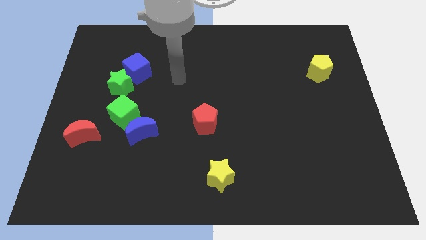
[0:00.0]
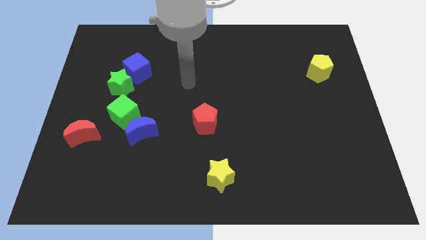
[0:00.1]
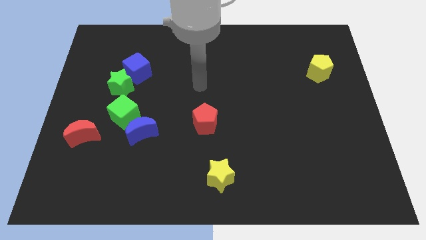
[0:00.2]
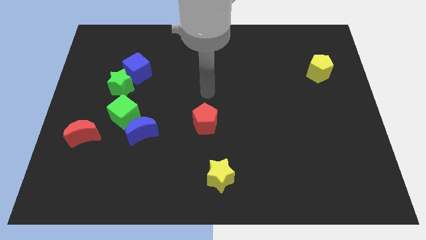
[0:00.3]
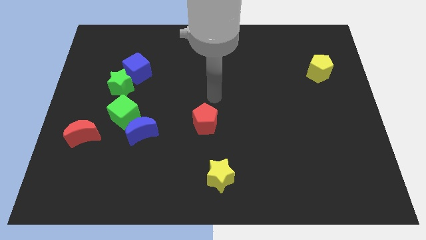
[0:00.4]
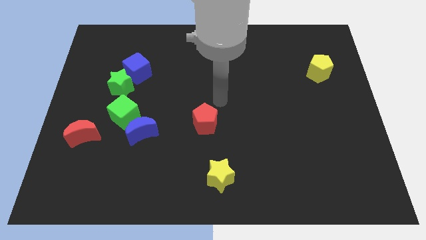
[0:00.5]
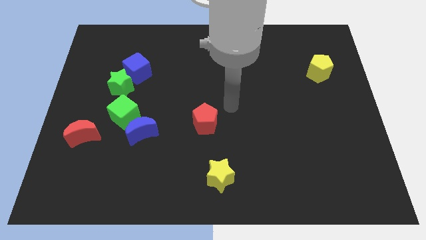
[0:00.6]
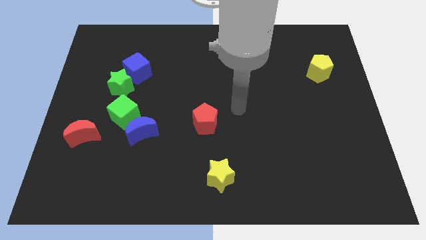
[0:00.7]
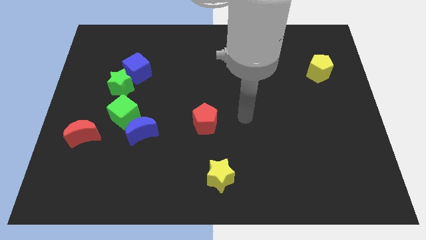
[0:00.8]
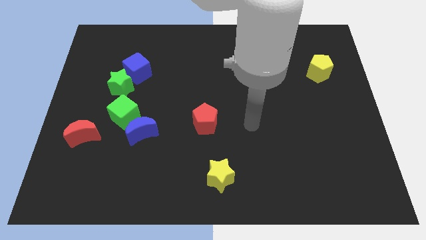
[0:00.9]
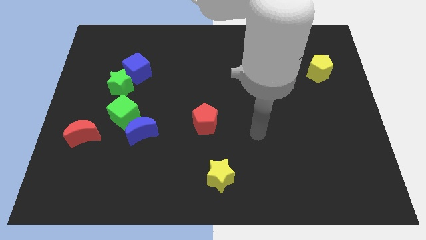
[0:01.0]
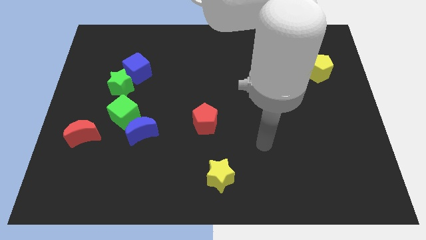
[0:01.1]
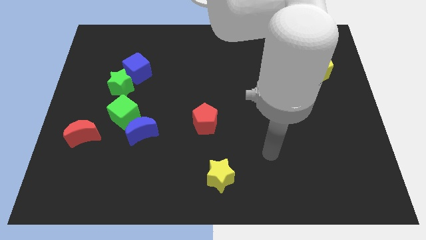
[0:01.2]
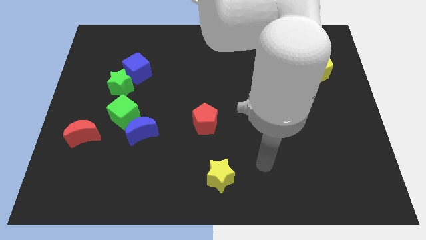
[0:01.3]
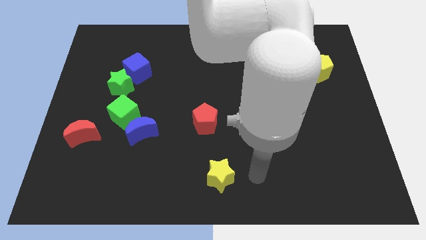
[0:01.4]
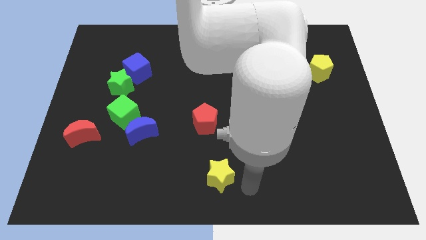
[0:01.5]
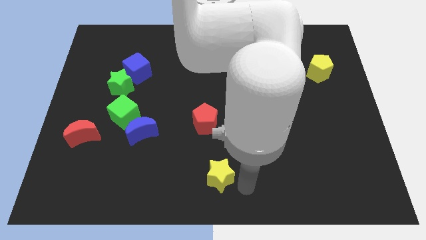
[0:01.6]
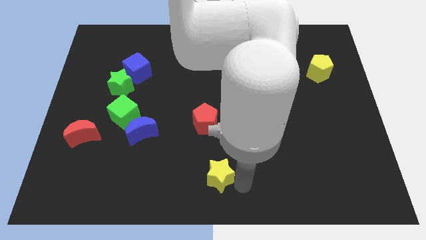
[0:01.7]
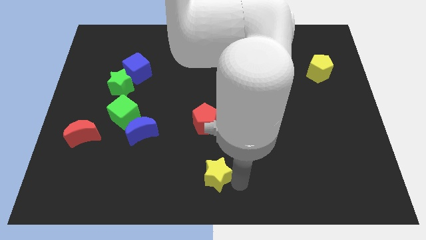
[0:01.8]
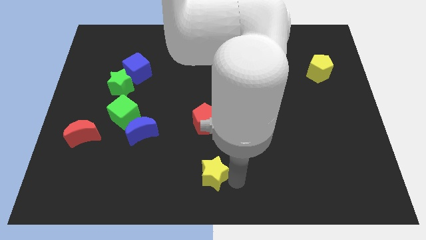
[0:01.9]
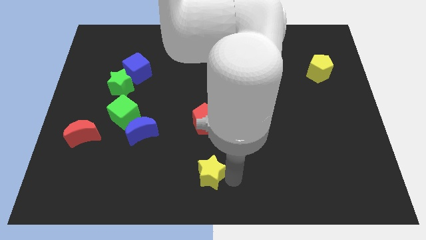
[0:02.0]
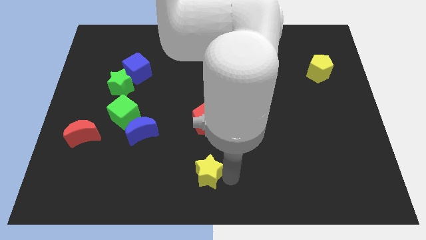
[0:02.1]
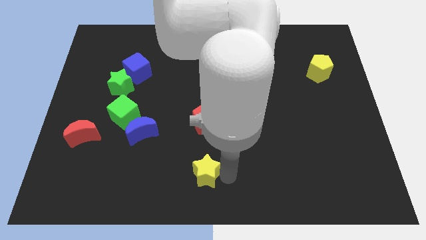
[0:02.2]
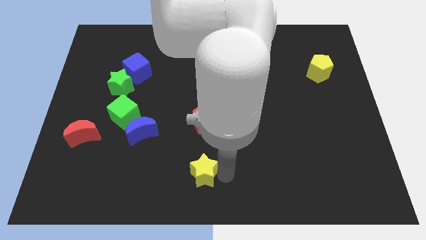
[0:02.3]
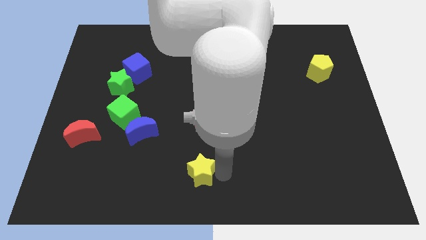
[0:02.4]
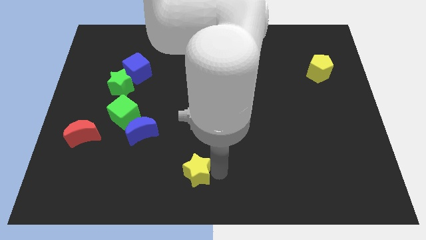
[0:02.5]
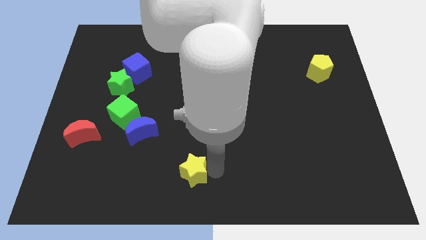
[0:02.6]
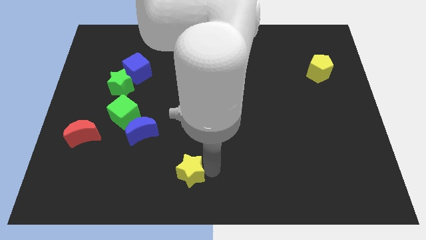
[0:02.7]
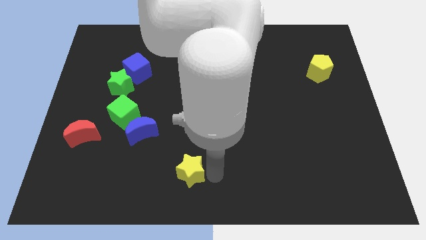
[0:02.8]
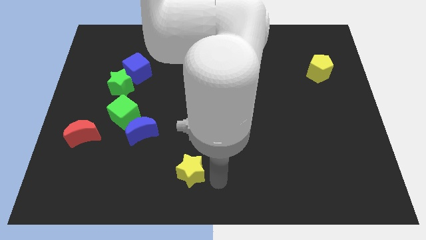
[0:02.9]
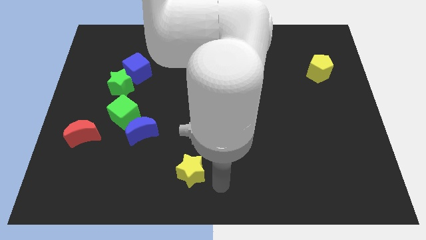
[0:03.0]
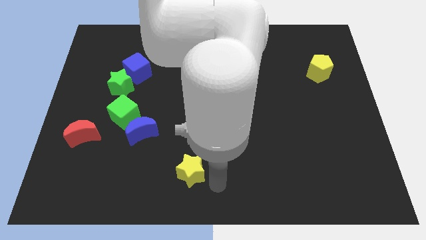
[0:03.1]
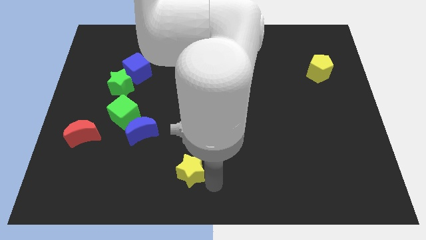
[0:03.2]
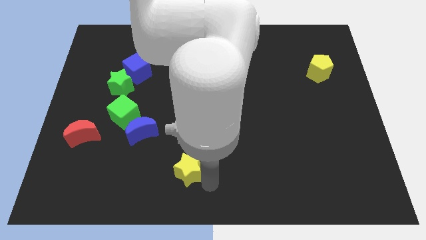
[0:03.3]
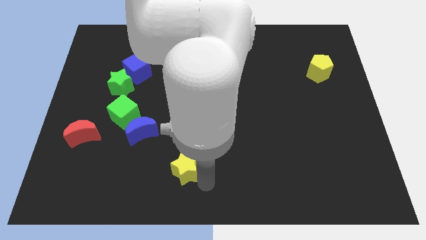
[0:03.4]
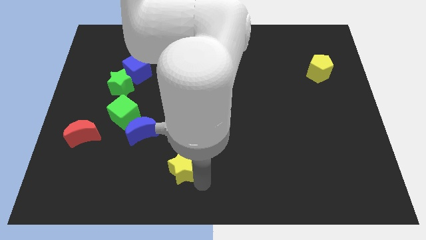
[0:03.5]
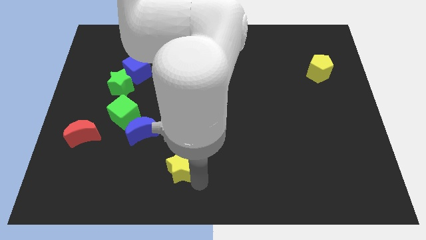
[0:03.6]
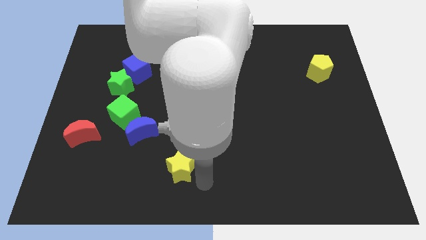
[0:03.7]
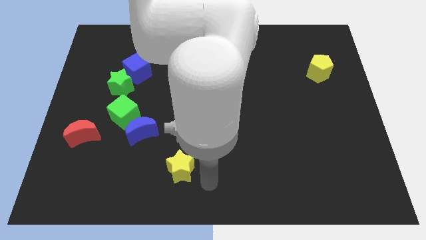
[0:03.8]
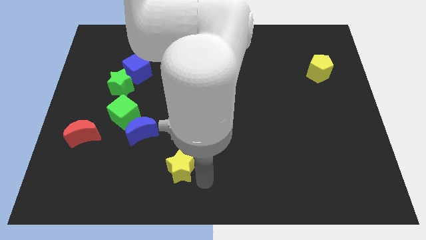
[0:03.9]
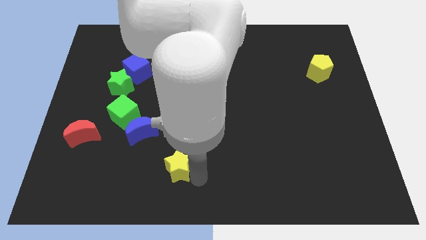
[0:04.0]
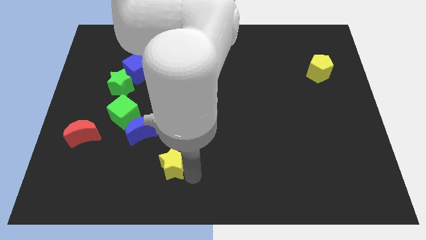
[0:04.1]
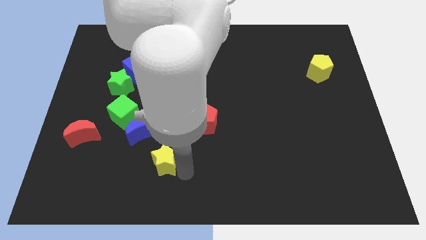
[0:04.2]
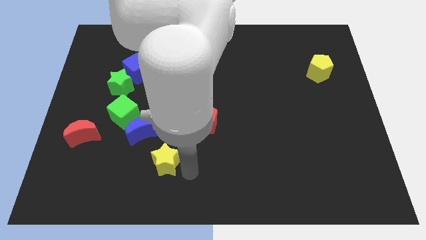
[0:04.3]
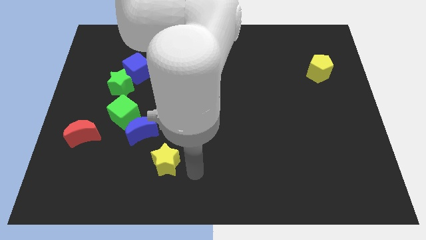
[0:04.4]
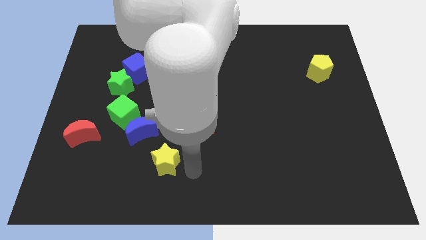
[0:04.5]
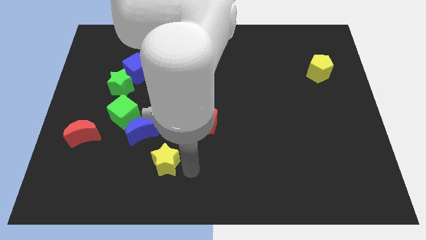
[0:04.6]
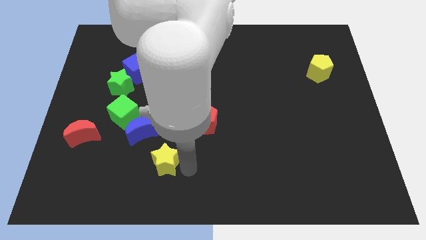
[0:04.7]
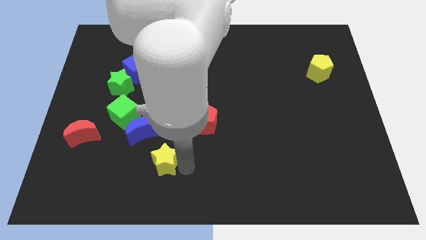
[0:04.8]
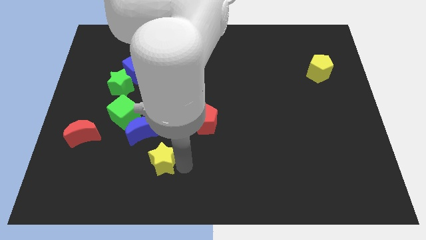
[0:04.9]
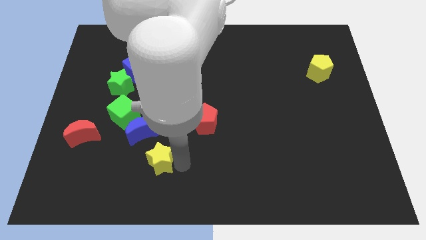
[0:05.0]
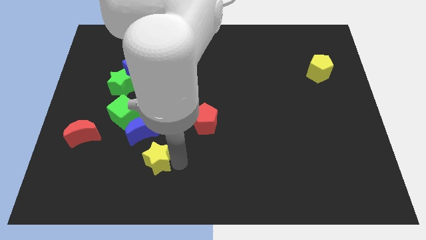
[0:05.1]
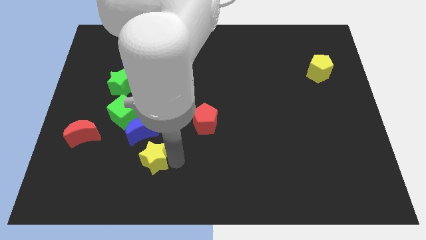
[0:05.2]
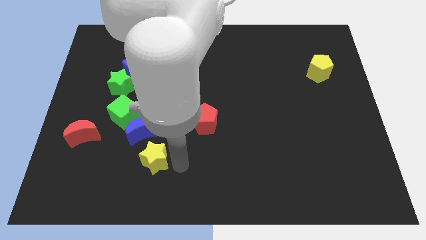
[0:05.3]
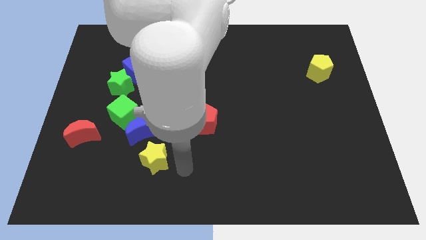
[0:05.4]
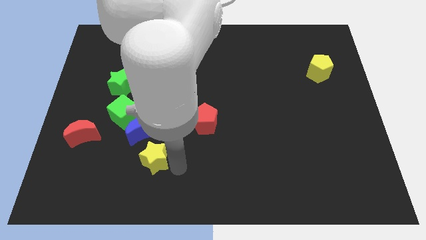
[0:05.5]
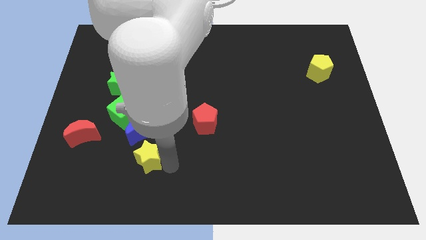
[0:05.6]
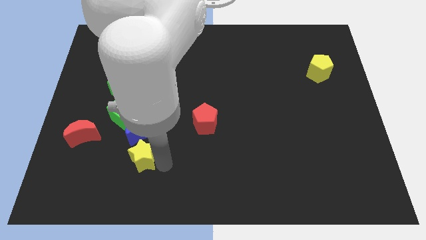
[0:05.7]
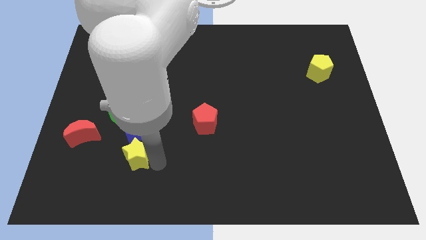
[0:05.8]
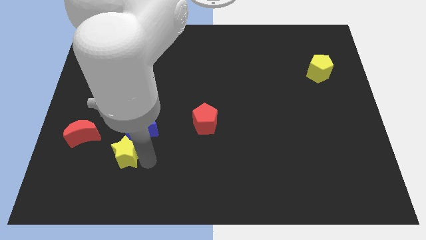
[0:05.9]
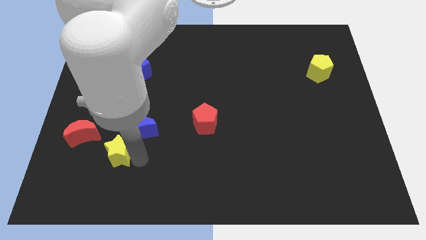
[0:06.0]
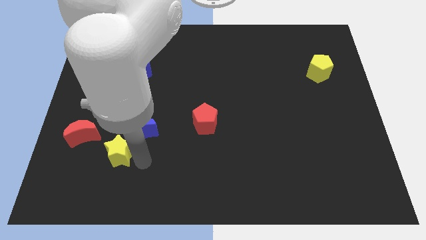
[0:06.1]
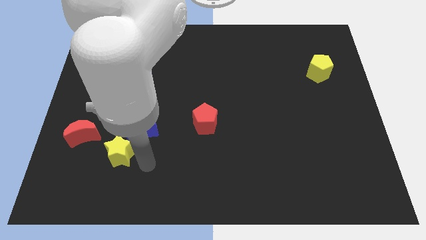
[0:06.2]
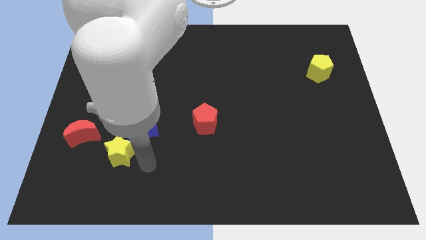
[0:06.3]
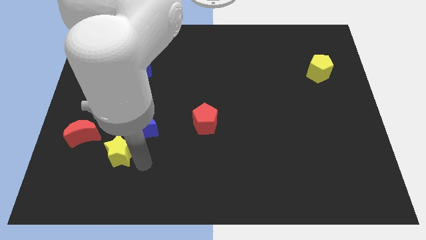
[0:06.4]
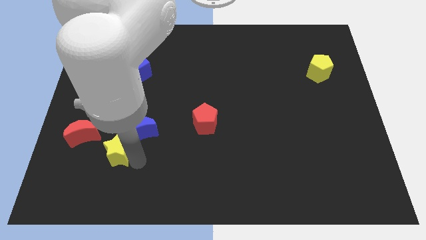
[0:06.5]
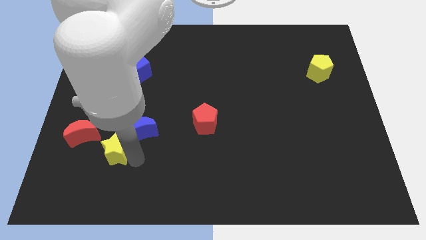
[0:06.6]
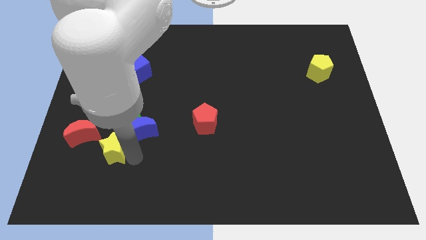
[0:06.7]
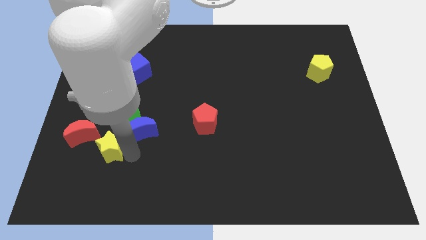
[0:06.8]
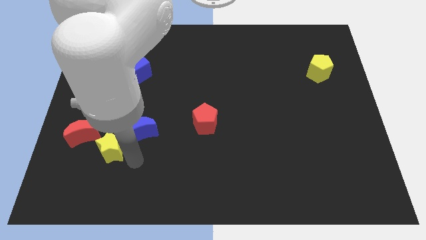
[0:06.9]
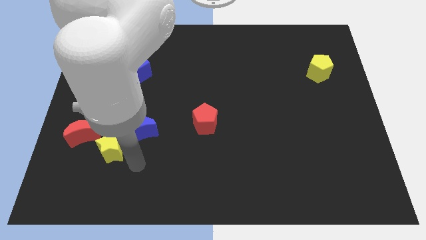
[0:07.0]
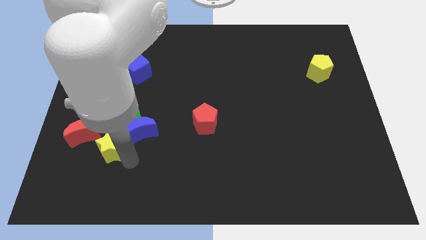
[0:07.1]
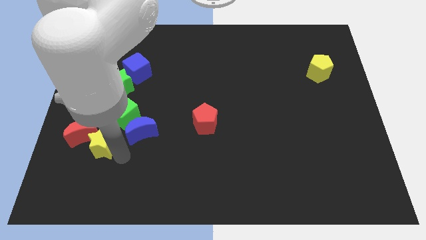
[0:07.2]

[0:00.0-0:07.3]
put the yellow star towards the red moon
